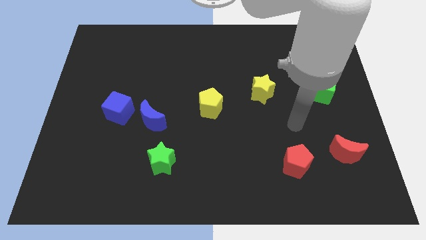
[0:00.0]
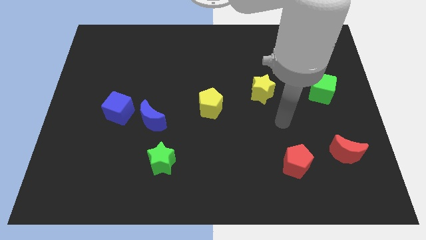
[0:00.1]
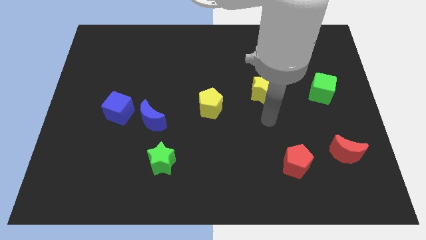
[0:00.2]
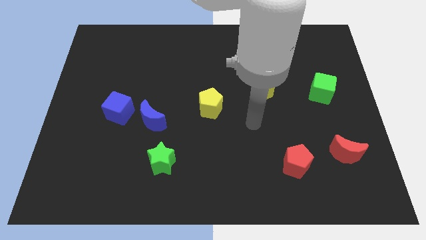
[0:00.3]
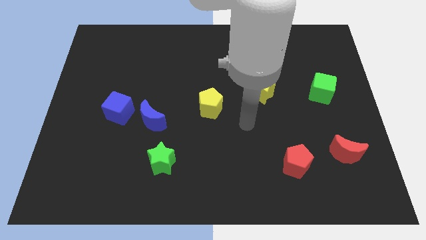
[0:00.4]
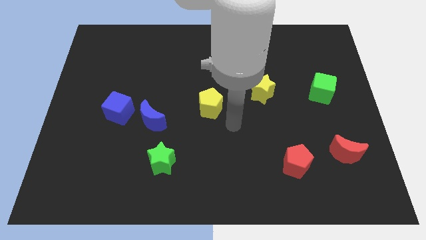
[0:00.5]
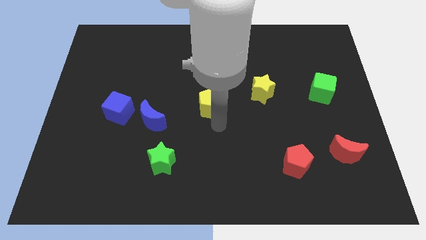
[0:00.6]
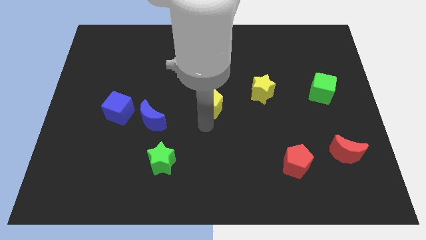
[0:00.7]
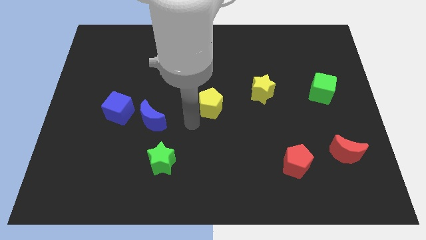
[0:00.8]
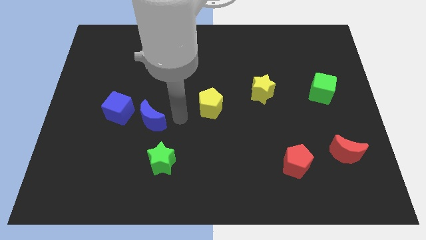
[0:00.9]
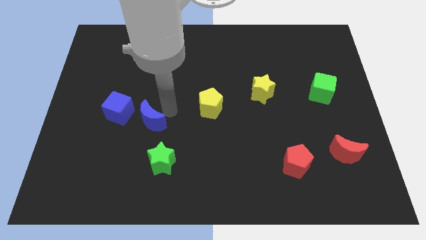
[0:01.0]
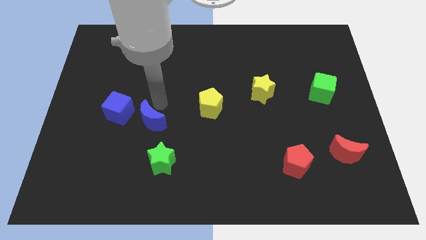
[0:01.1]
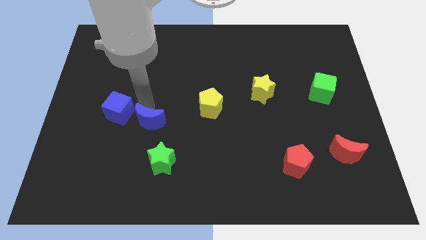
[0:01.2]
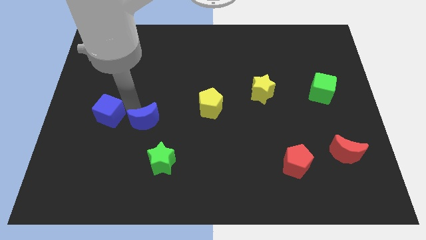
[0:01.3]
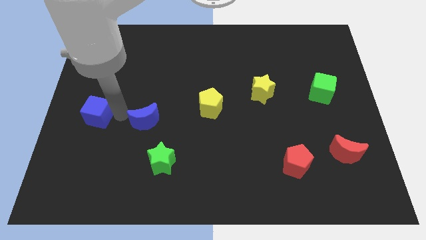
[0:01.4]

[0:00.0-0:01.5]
separate the blue moon from the blue cube

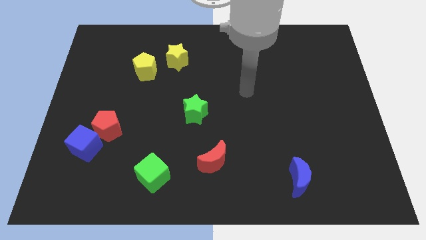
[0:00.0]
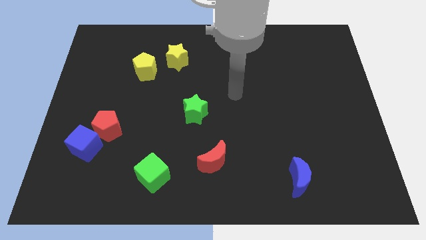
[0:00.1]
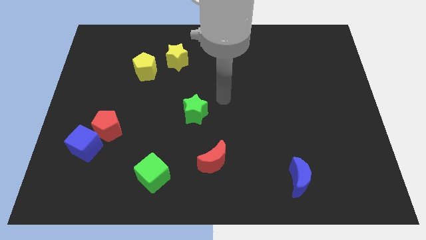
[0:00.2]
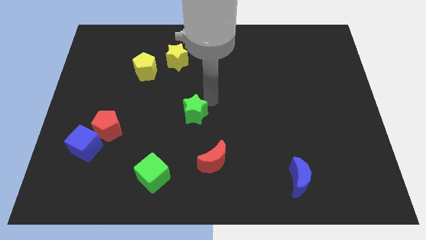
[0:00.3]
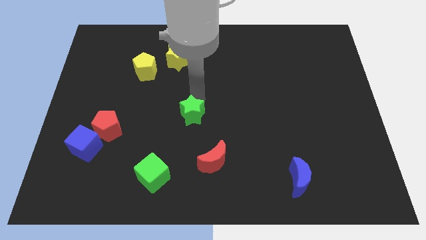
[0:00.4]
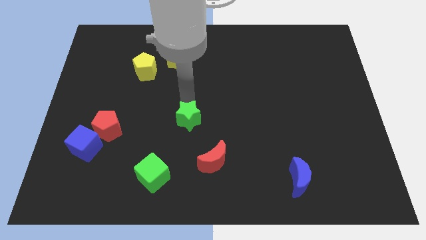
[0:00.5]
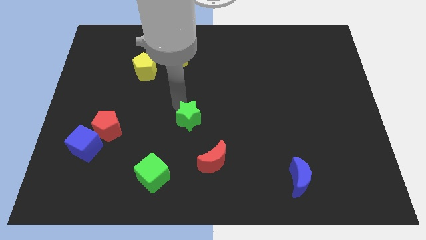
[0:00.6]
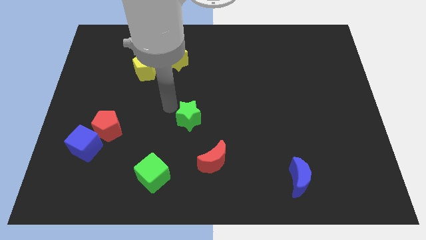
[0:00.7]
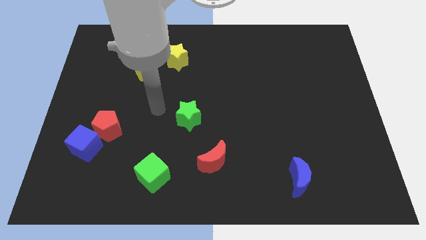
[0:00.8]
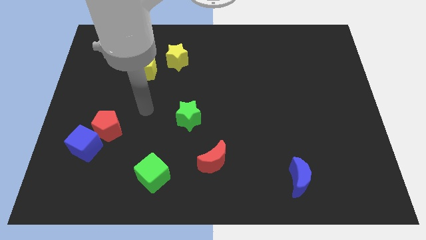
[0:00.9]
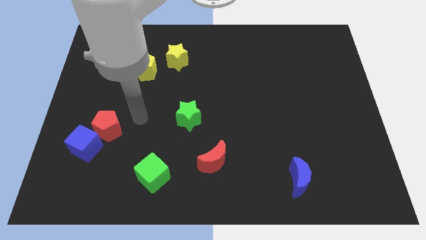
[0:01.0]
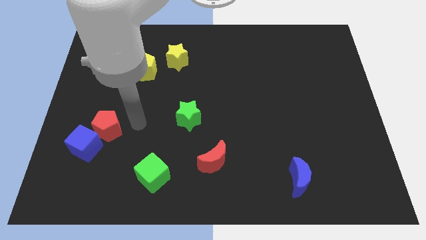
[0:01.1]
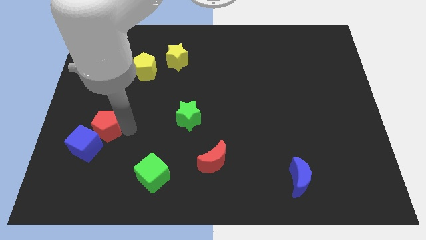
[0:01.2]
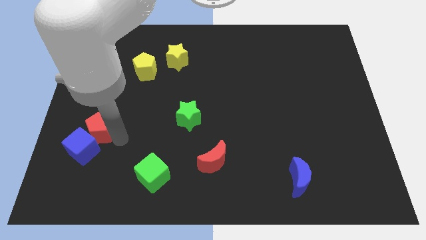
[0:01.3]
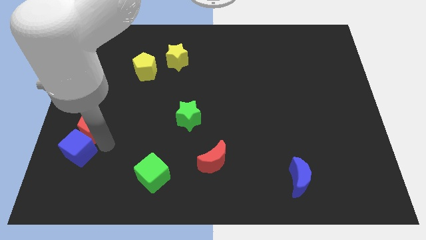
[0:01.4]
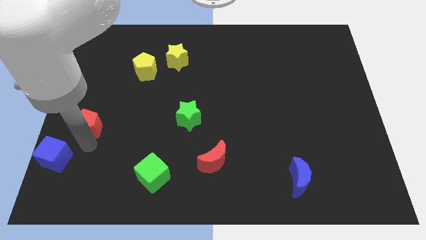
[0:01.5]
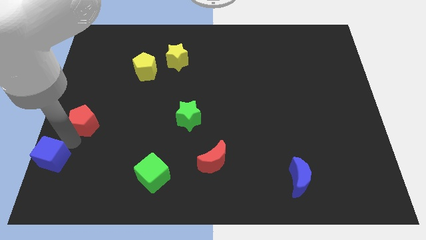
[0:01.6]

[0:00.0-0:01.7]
pull the red pentagon apart from the blue cube

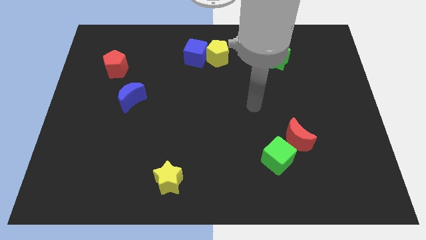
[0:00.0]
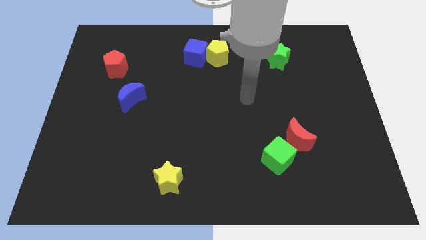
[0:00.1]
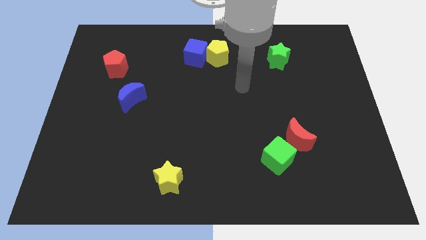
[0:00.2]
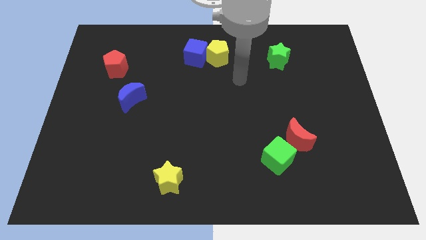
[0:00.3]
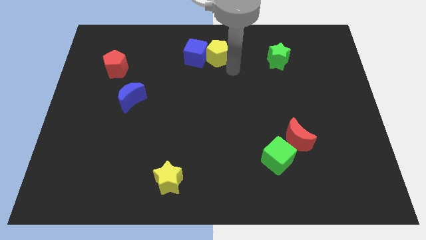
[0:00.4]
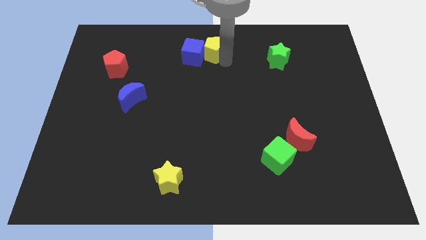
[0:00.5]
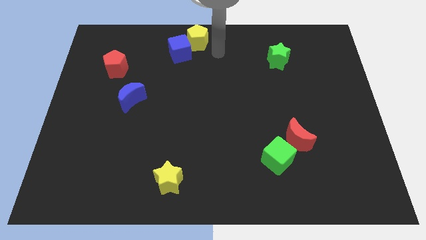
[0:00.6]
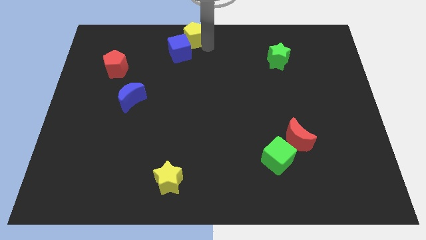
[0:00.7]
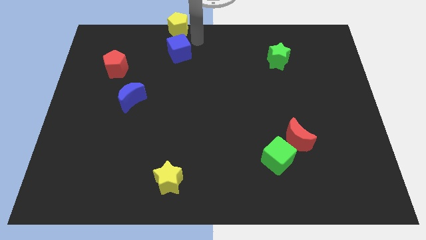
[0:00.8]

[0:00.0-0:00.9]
move the blue cube away from the yellow pentagon

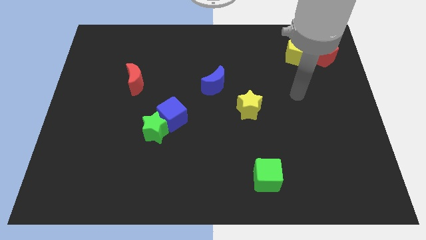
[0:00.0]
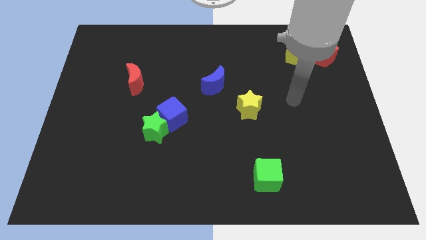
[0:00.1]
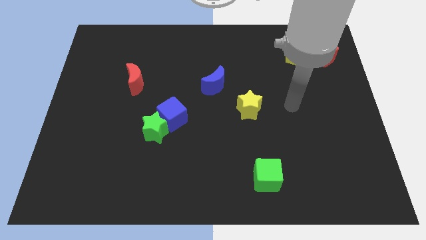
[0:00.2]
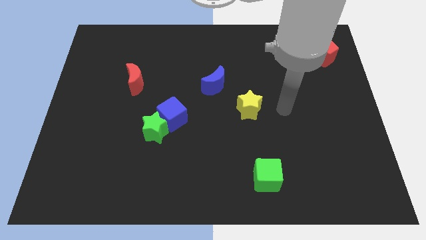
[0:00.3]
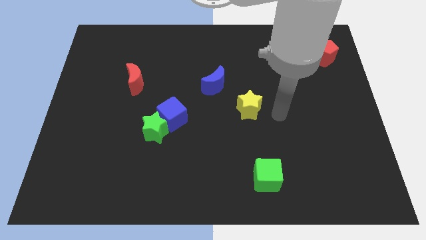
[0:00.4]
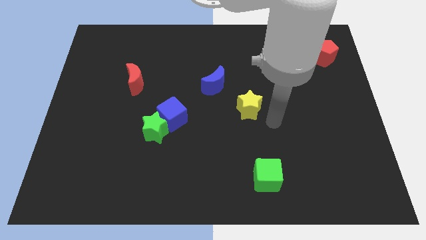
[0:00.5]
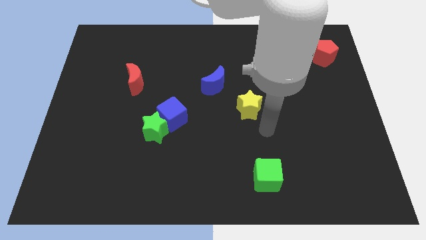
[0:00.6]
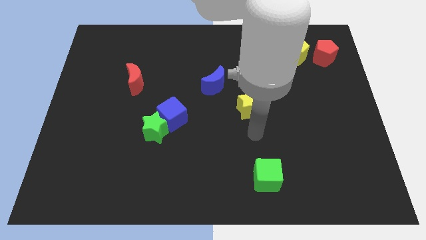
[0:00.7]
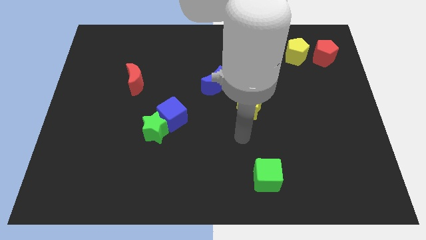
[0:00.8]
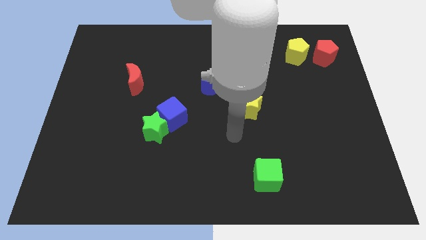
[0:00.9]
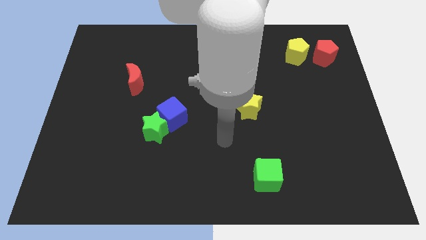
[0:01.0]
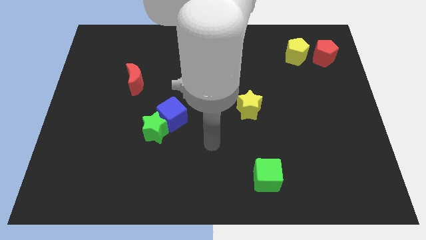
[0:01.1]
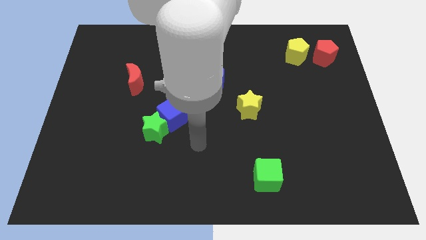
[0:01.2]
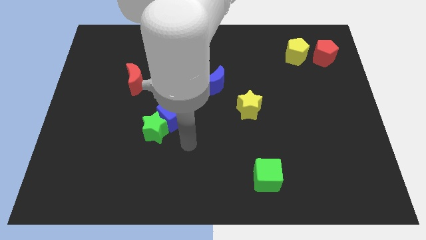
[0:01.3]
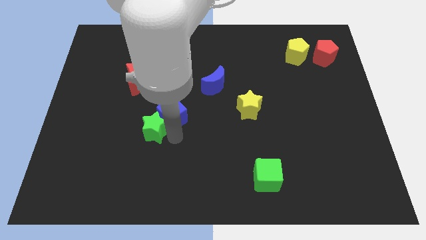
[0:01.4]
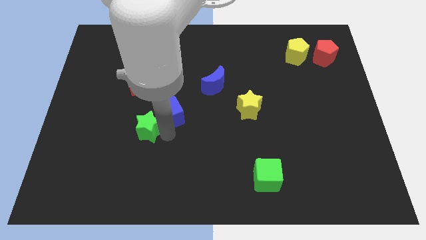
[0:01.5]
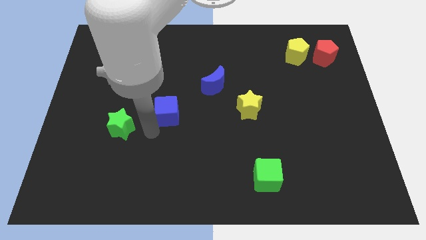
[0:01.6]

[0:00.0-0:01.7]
move the blue cube away from the green star

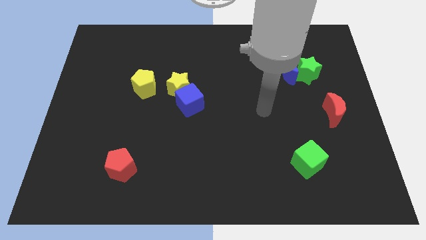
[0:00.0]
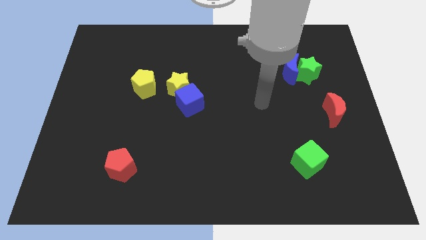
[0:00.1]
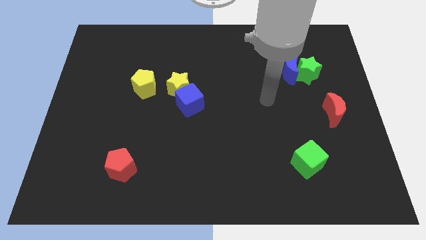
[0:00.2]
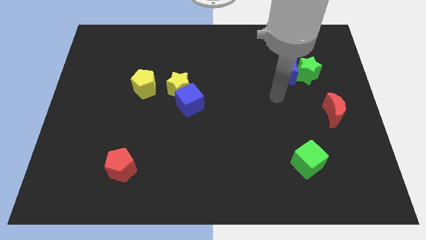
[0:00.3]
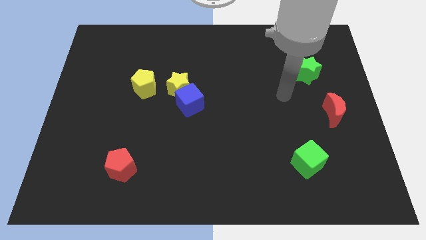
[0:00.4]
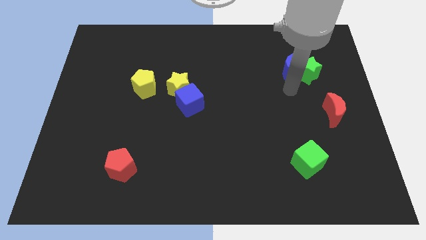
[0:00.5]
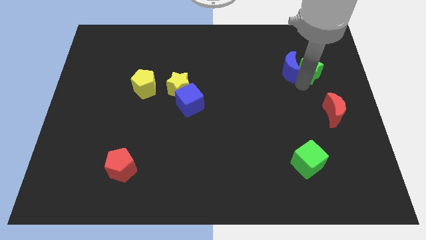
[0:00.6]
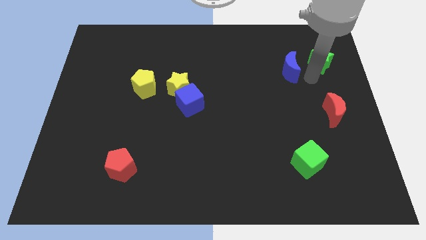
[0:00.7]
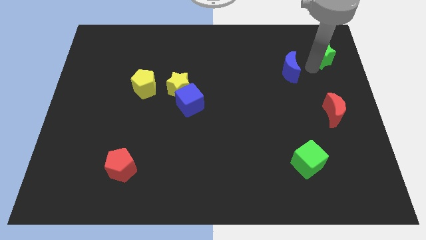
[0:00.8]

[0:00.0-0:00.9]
separate the blue moon from the green star

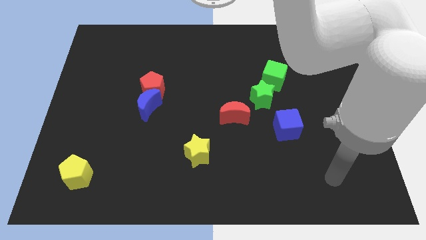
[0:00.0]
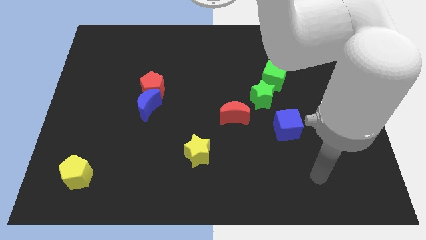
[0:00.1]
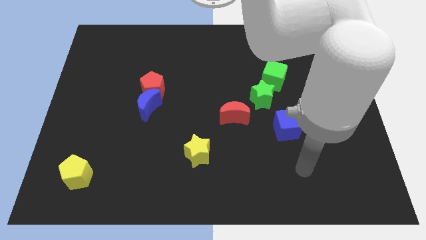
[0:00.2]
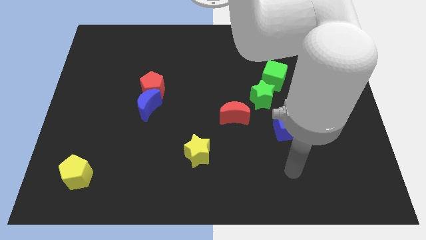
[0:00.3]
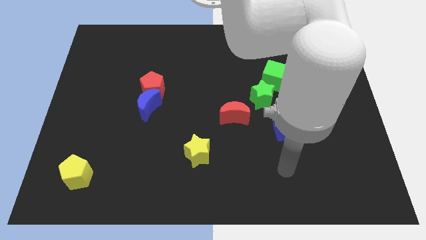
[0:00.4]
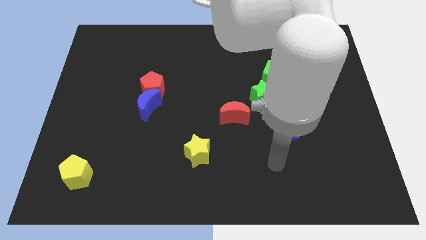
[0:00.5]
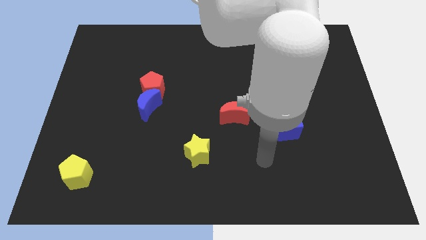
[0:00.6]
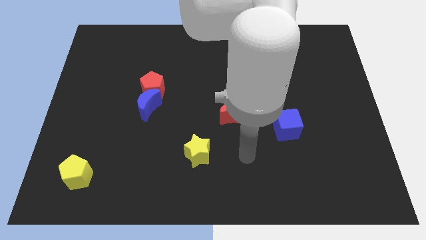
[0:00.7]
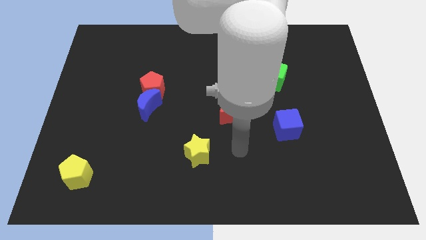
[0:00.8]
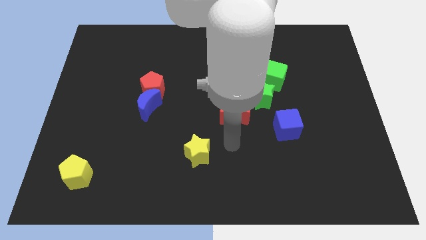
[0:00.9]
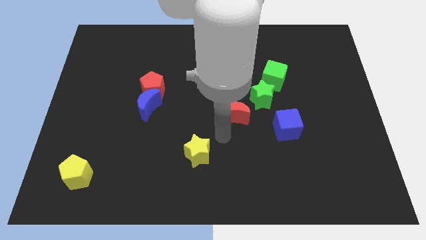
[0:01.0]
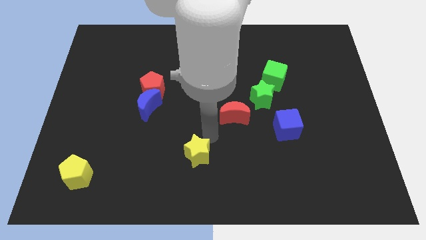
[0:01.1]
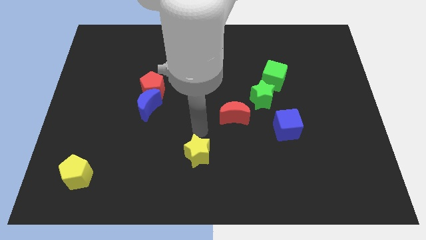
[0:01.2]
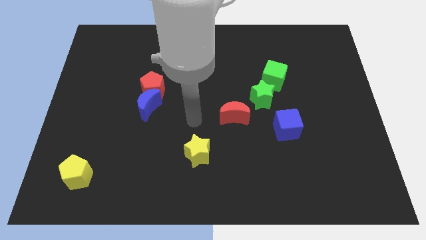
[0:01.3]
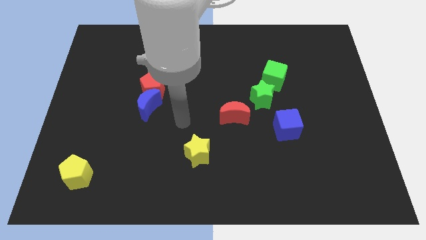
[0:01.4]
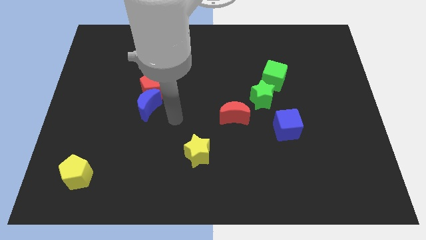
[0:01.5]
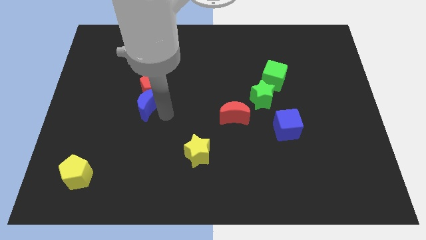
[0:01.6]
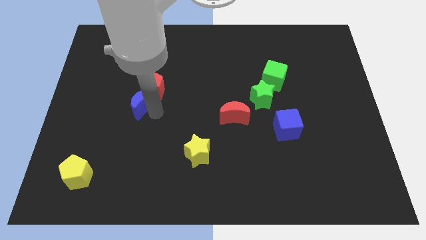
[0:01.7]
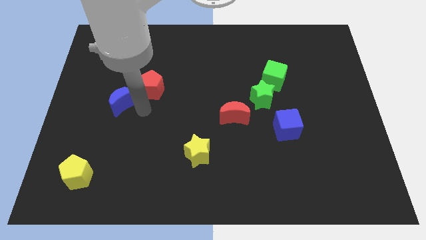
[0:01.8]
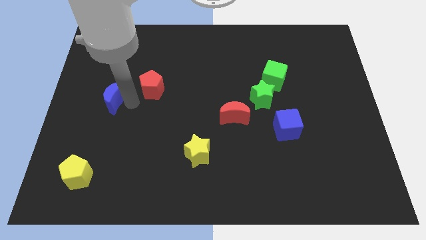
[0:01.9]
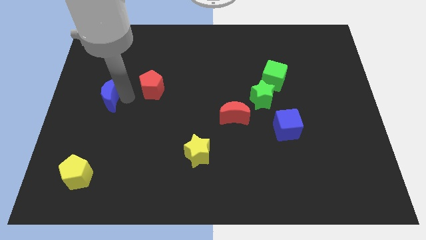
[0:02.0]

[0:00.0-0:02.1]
separate the red pentagon from the blue moon

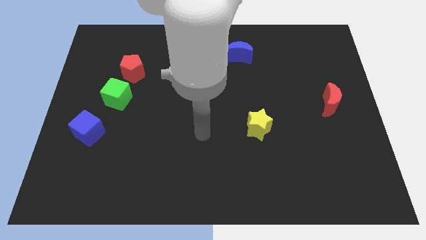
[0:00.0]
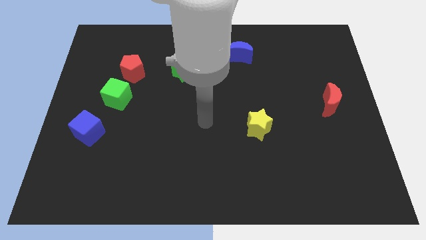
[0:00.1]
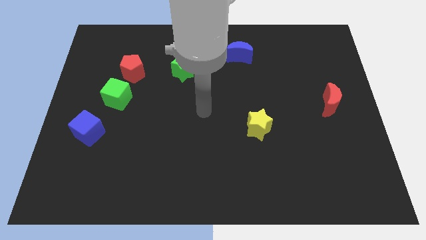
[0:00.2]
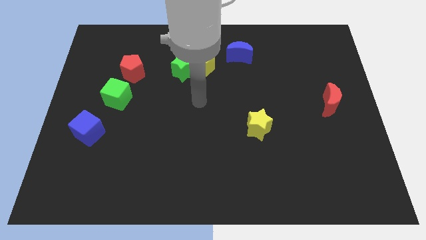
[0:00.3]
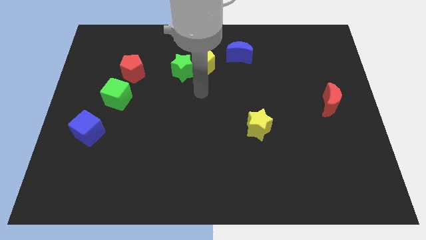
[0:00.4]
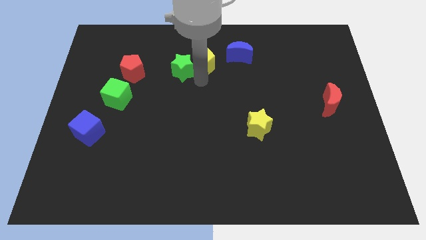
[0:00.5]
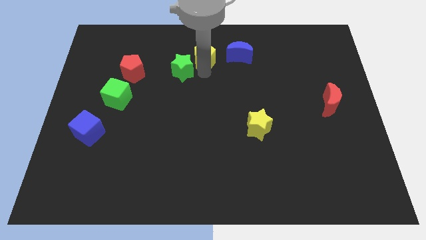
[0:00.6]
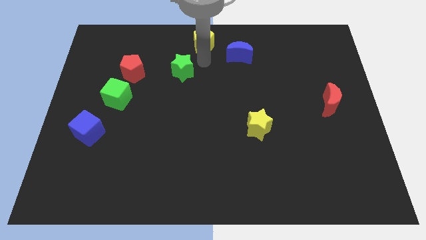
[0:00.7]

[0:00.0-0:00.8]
separate the green star from the yellow pentagon
